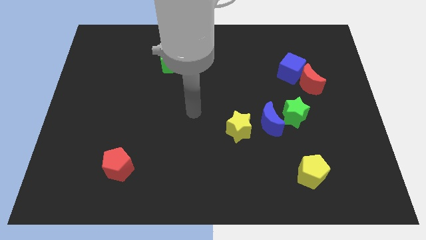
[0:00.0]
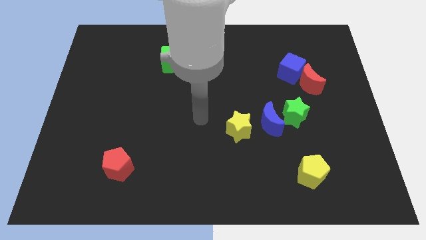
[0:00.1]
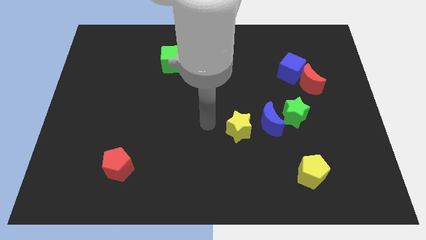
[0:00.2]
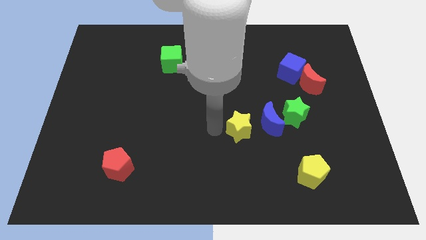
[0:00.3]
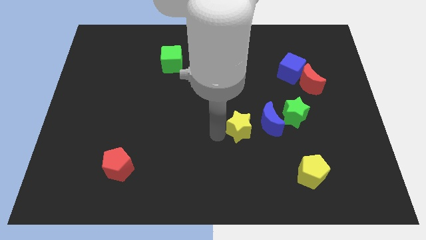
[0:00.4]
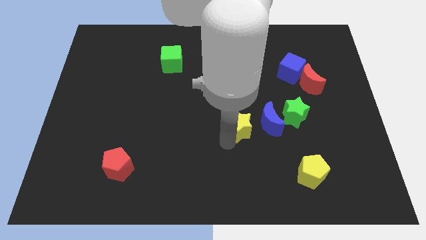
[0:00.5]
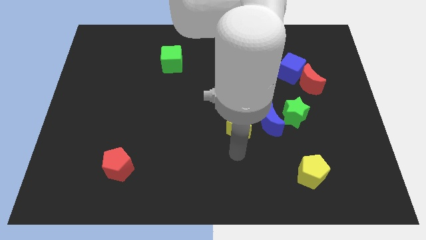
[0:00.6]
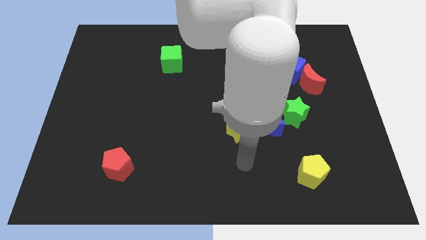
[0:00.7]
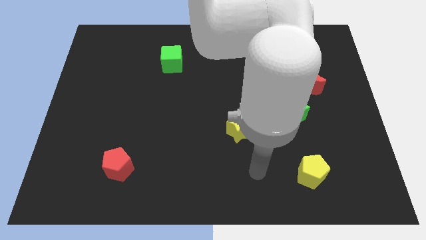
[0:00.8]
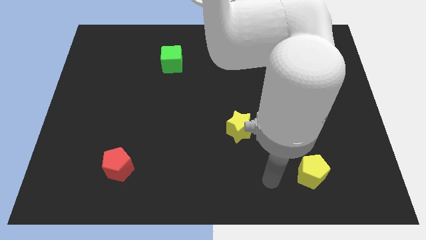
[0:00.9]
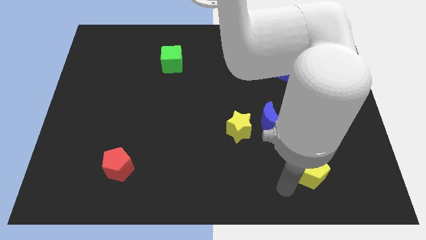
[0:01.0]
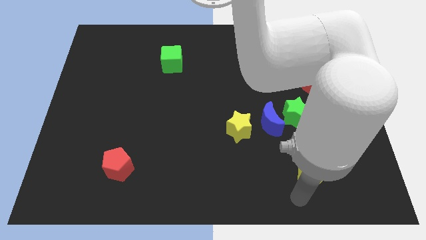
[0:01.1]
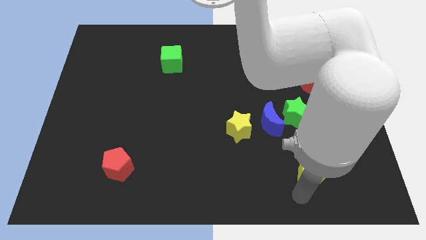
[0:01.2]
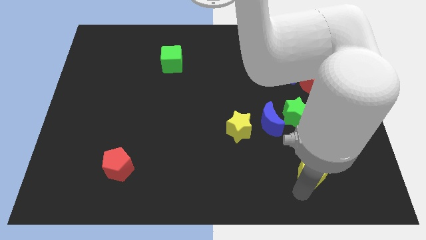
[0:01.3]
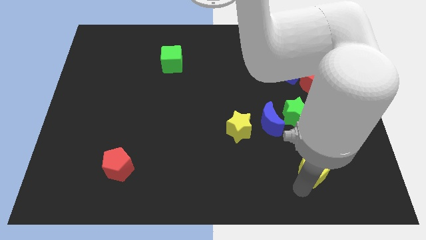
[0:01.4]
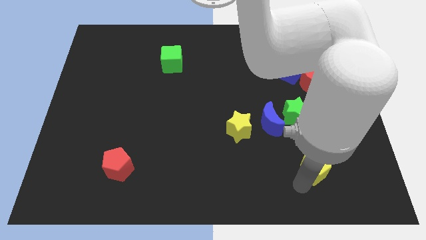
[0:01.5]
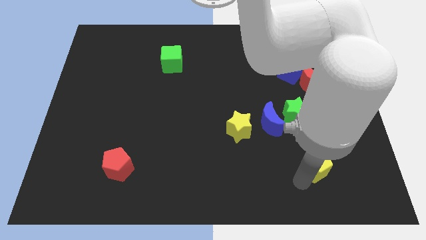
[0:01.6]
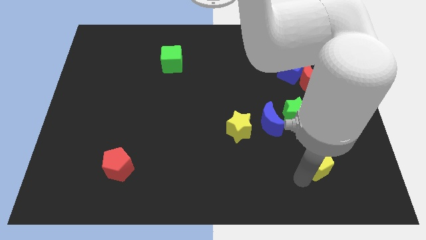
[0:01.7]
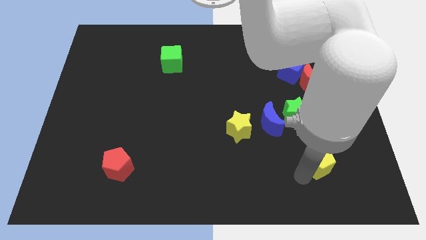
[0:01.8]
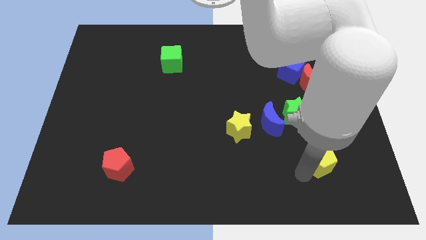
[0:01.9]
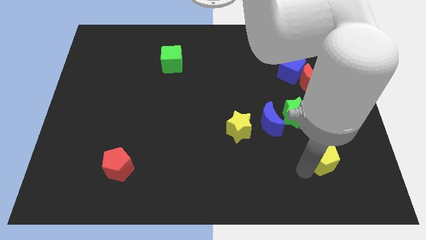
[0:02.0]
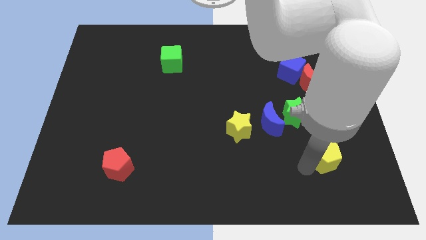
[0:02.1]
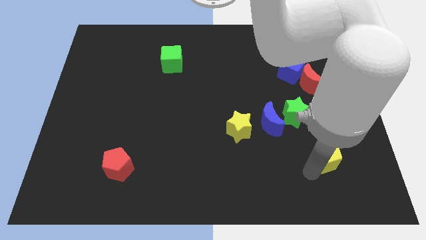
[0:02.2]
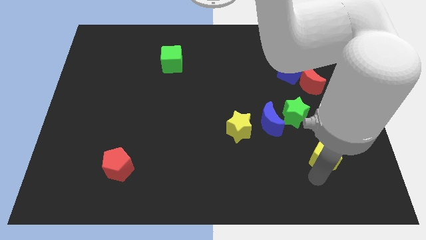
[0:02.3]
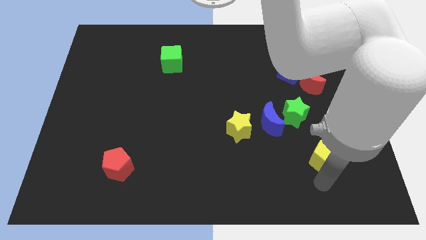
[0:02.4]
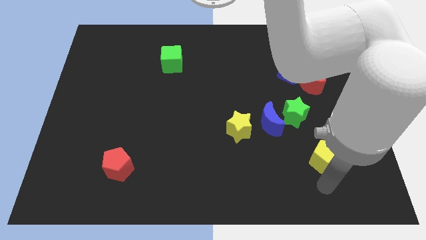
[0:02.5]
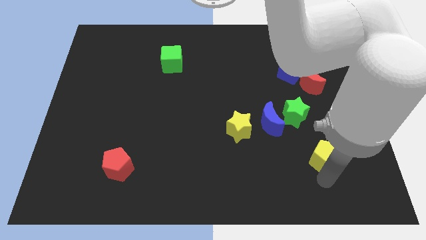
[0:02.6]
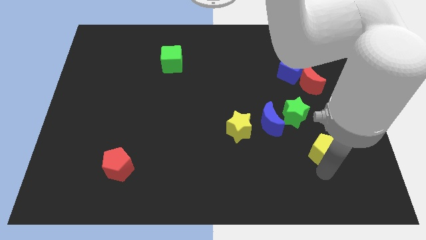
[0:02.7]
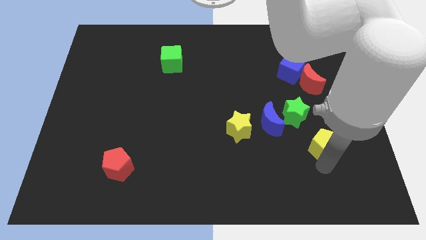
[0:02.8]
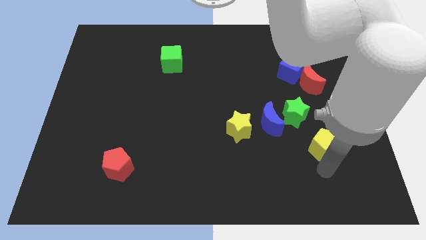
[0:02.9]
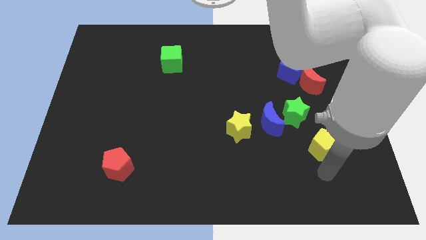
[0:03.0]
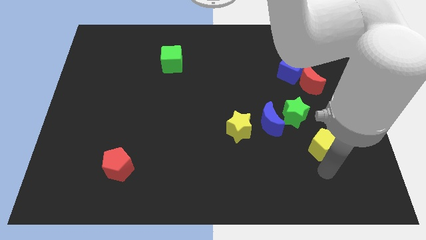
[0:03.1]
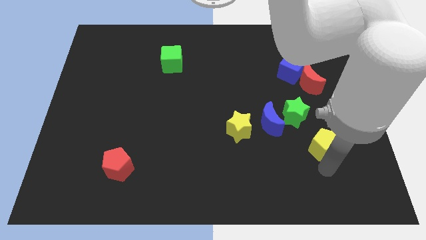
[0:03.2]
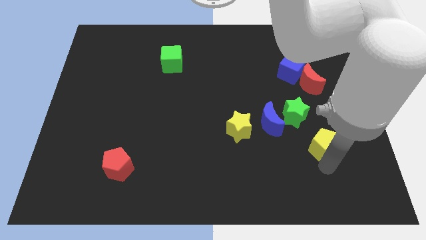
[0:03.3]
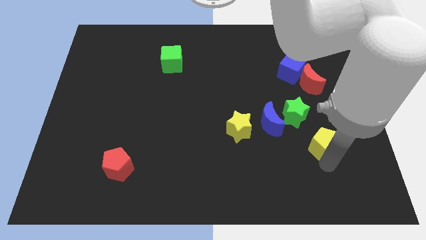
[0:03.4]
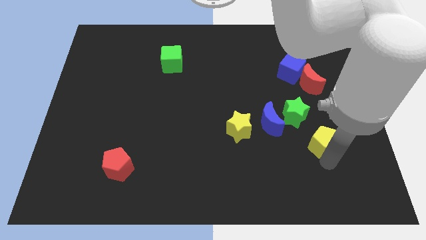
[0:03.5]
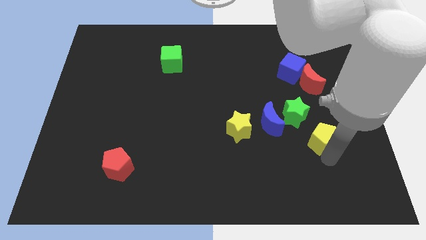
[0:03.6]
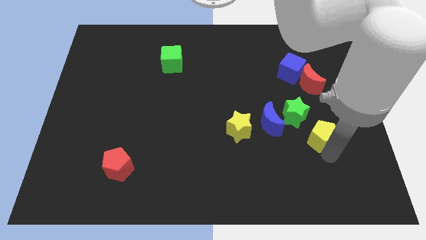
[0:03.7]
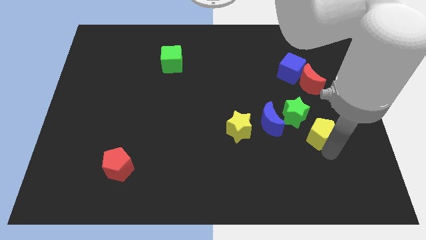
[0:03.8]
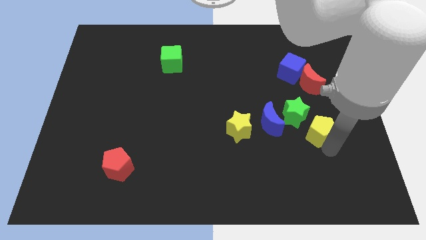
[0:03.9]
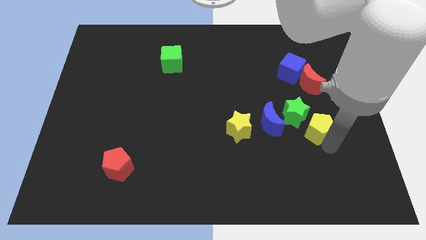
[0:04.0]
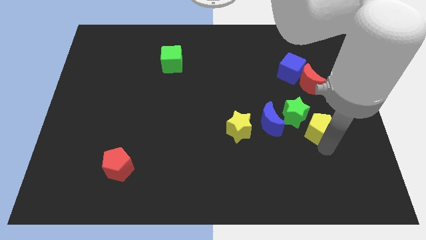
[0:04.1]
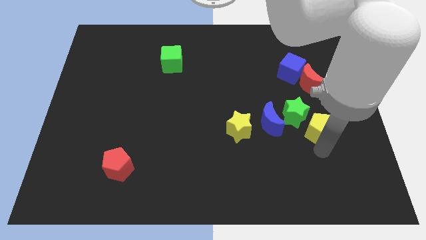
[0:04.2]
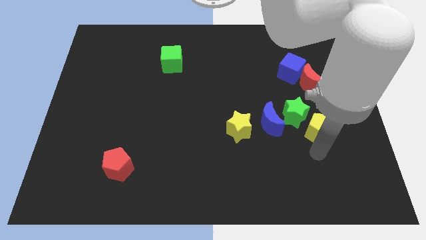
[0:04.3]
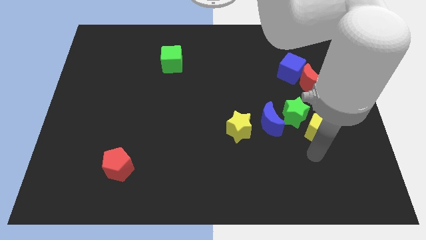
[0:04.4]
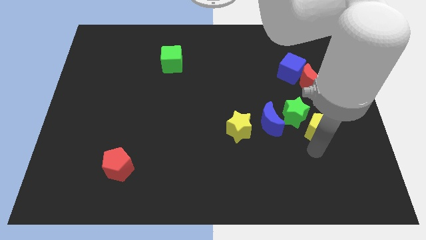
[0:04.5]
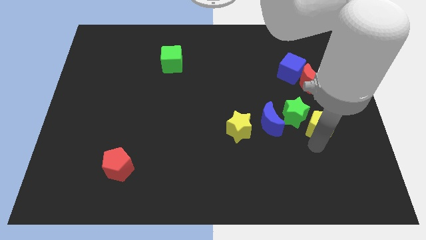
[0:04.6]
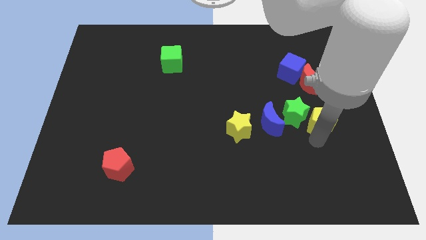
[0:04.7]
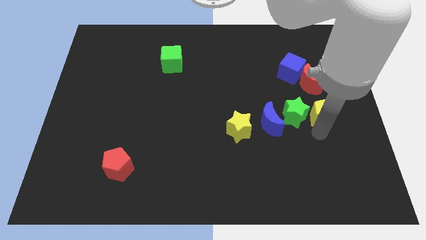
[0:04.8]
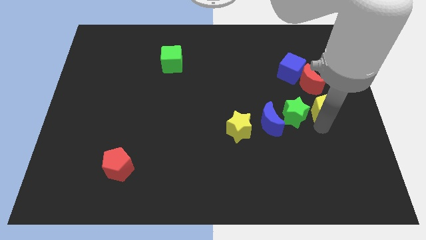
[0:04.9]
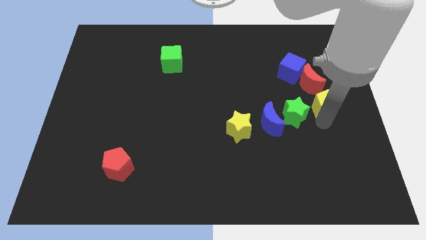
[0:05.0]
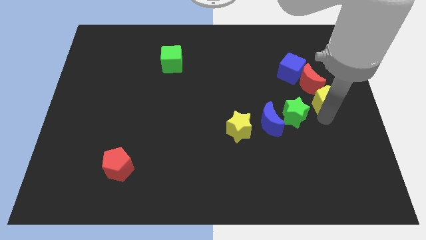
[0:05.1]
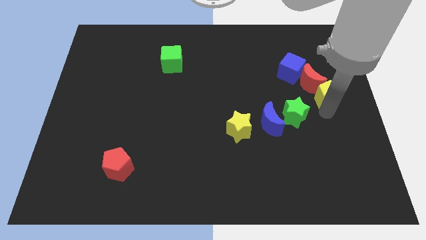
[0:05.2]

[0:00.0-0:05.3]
put the yellow pentagon next to the red moon

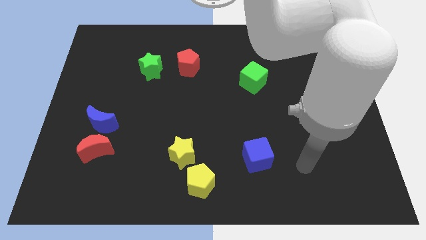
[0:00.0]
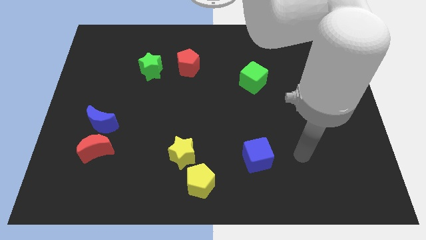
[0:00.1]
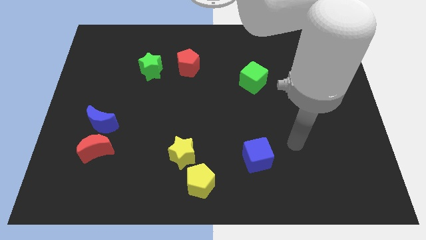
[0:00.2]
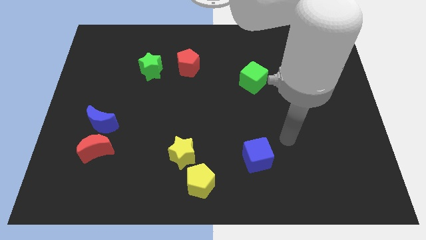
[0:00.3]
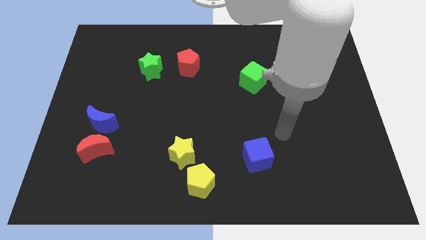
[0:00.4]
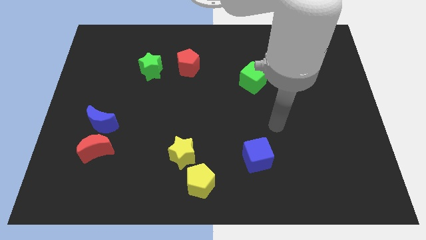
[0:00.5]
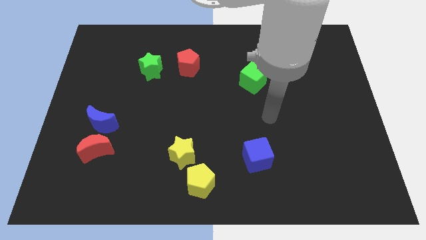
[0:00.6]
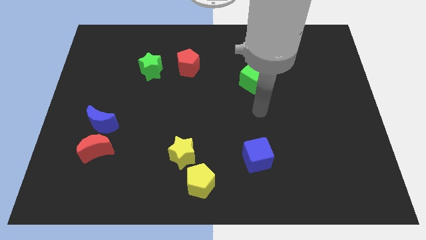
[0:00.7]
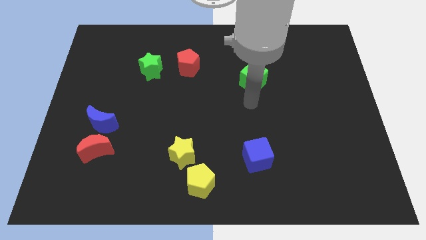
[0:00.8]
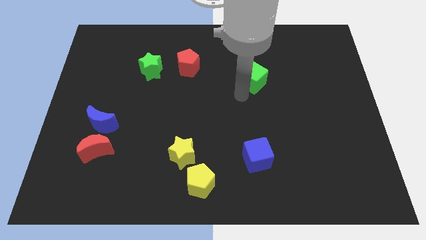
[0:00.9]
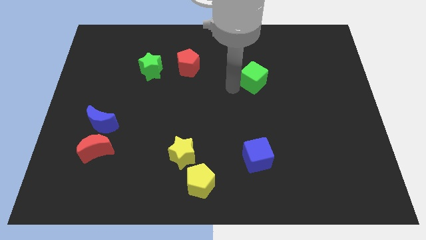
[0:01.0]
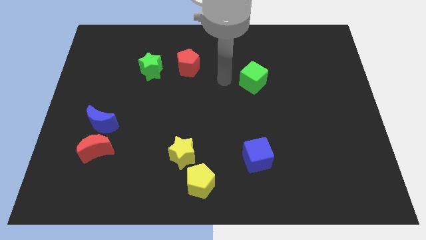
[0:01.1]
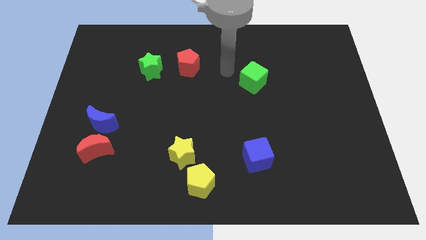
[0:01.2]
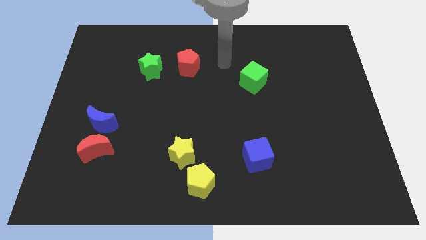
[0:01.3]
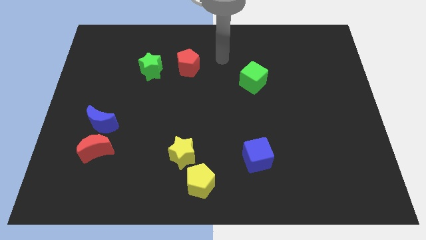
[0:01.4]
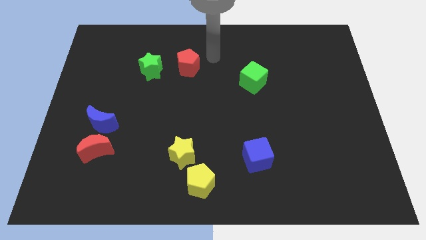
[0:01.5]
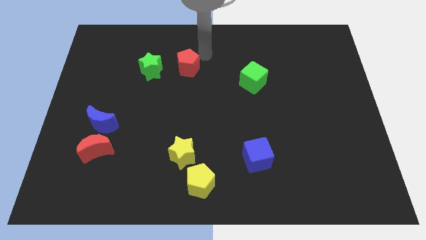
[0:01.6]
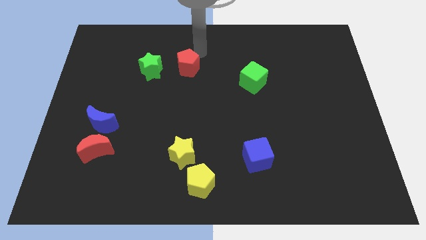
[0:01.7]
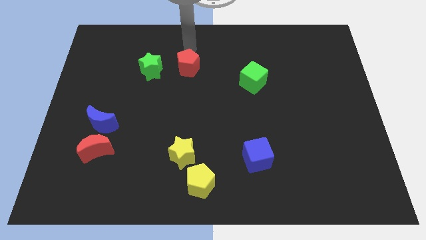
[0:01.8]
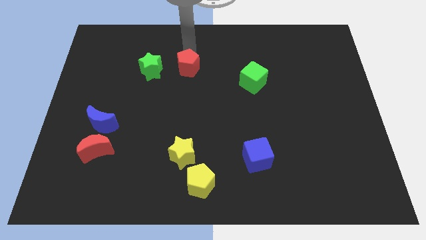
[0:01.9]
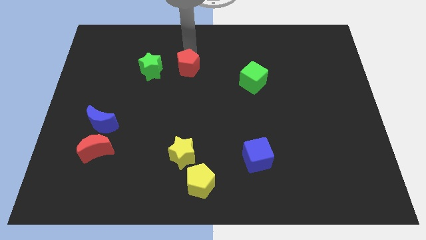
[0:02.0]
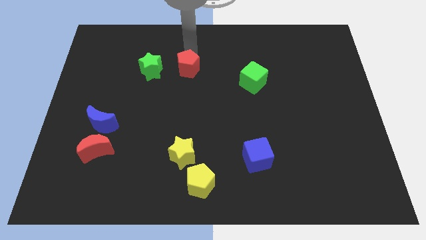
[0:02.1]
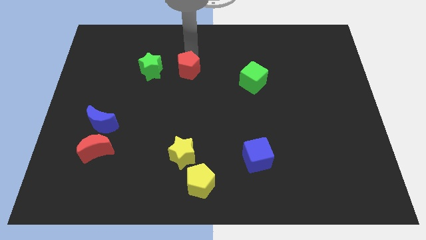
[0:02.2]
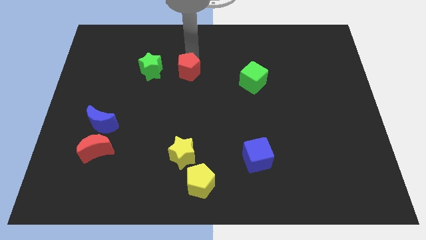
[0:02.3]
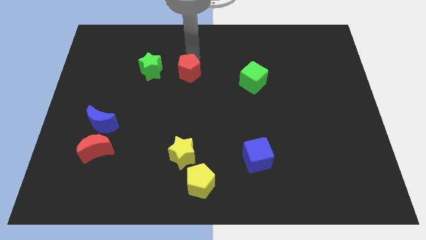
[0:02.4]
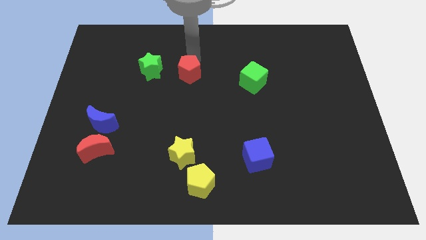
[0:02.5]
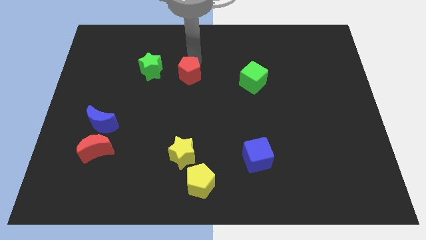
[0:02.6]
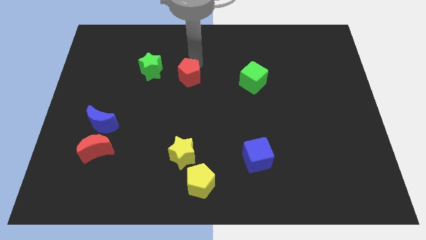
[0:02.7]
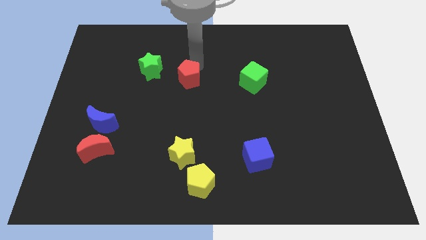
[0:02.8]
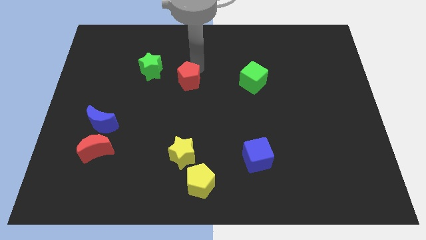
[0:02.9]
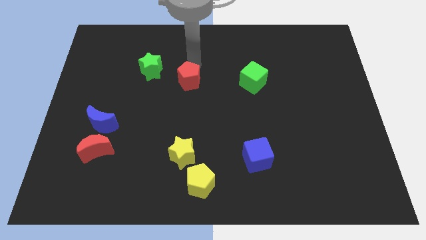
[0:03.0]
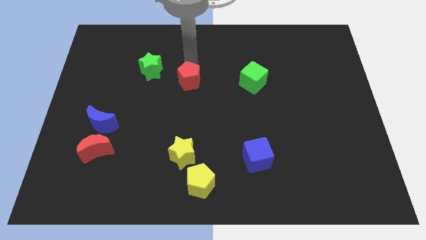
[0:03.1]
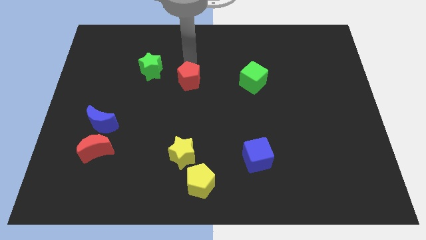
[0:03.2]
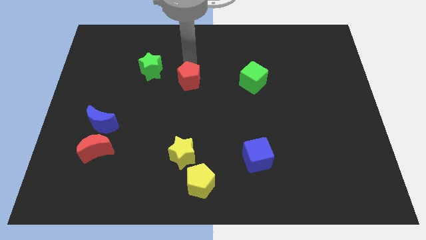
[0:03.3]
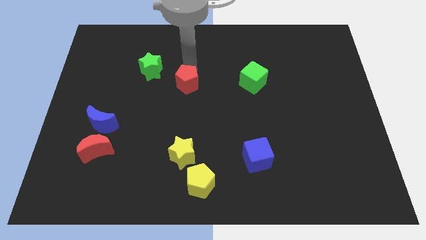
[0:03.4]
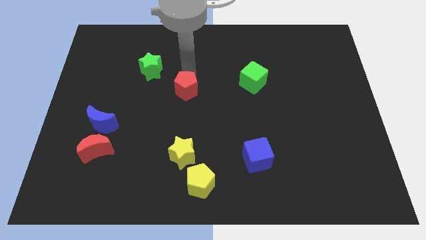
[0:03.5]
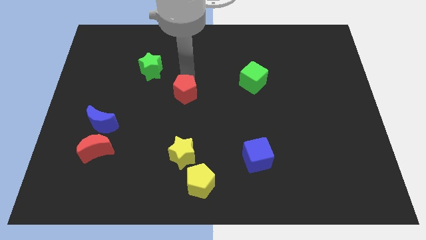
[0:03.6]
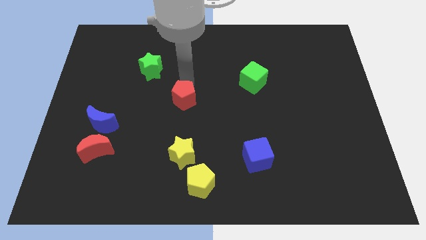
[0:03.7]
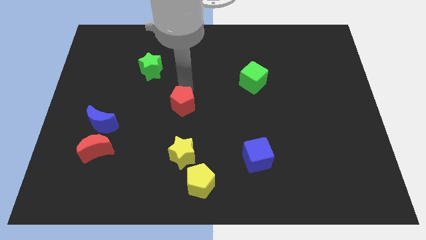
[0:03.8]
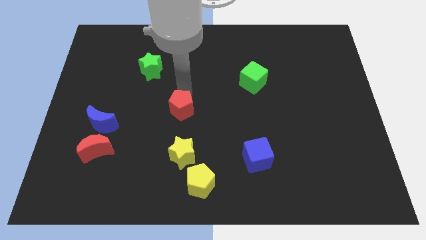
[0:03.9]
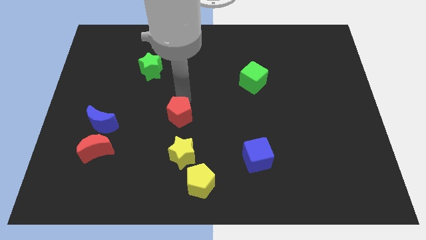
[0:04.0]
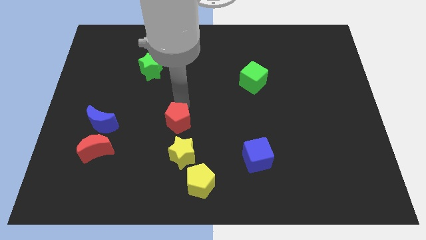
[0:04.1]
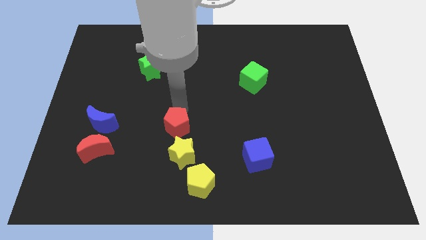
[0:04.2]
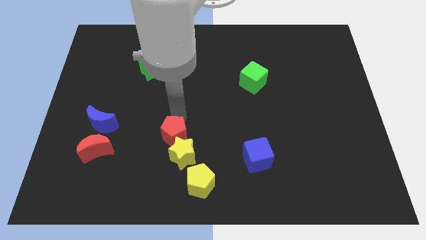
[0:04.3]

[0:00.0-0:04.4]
put the red pentagon towards the yellow star
